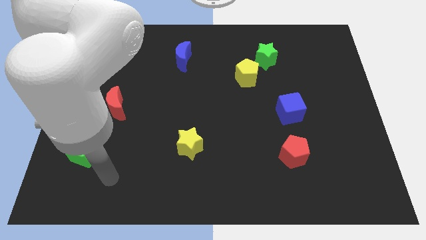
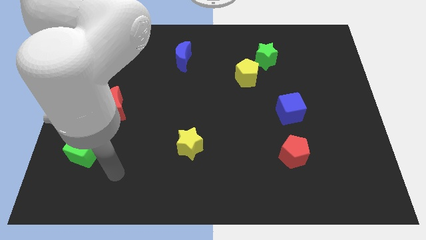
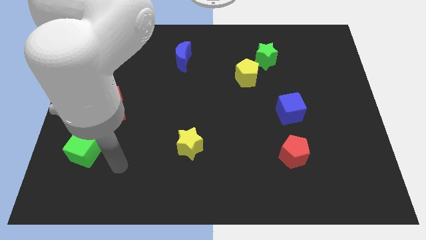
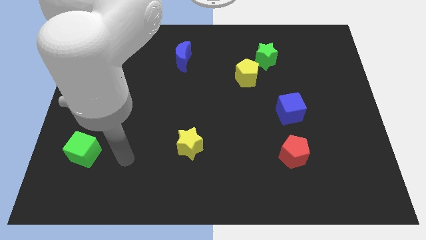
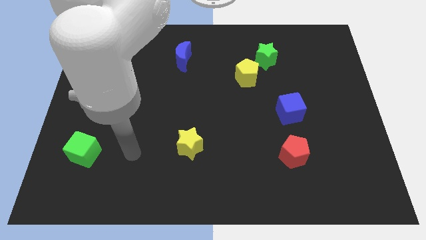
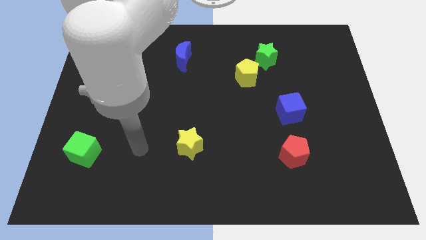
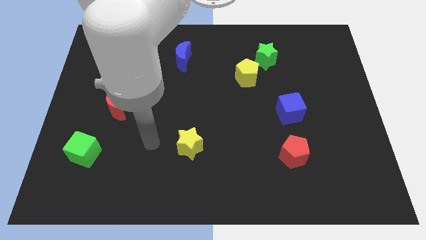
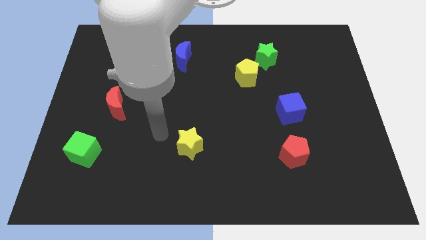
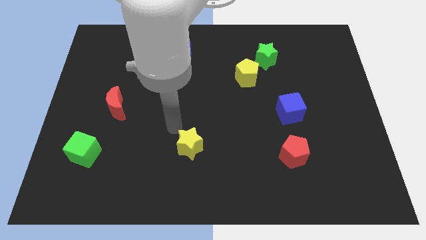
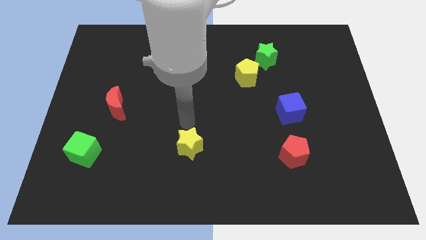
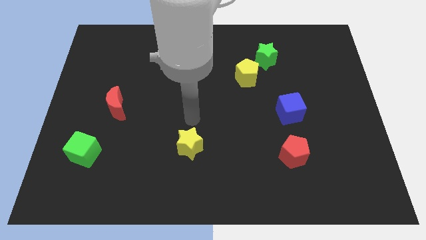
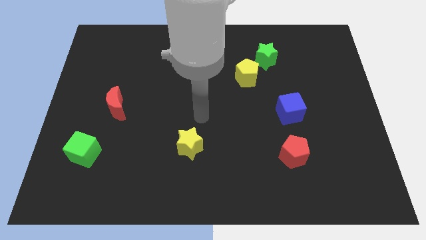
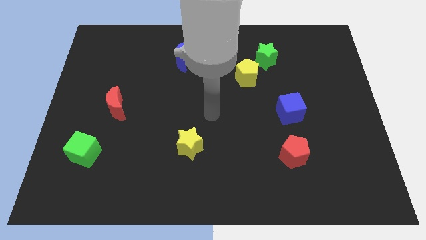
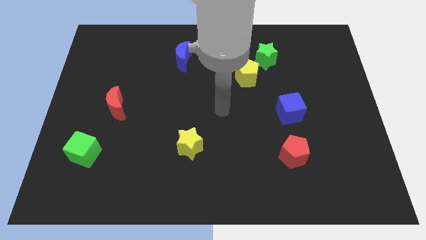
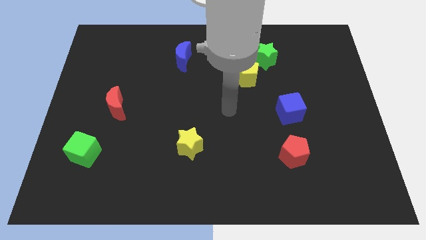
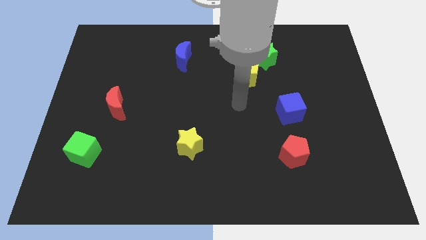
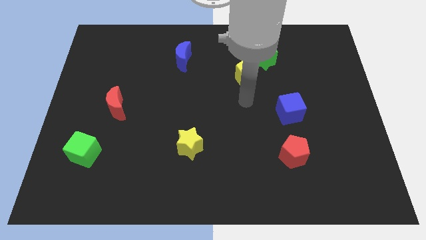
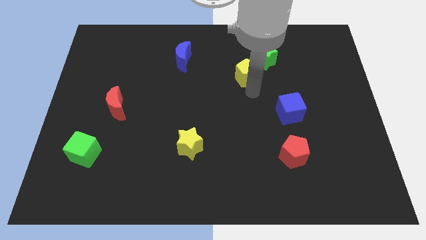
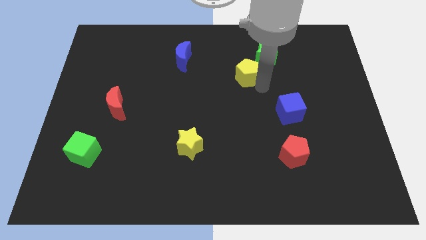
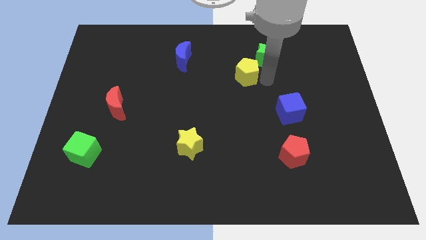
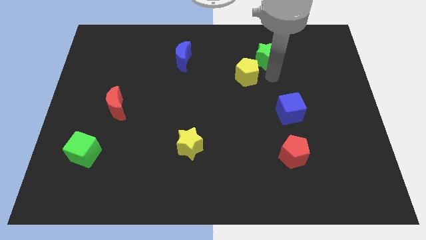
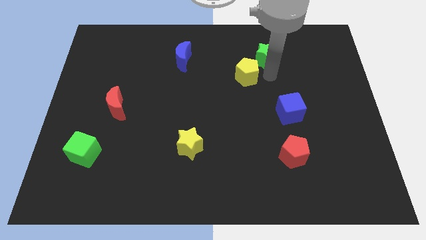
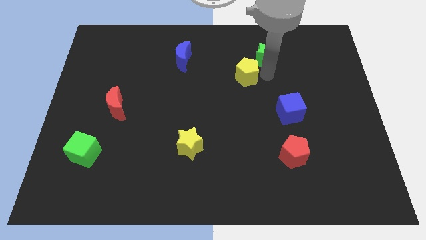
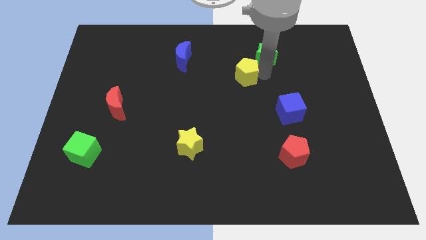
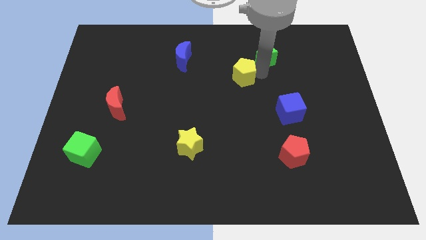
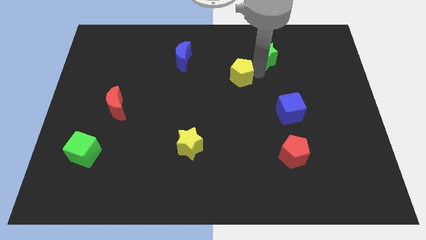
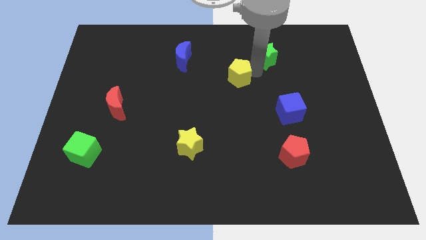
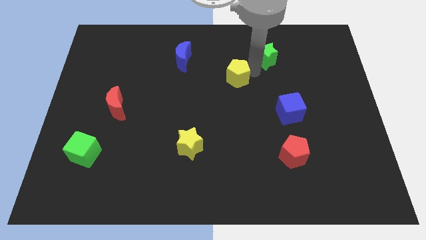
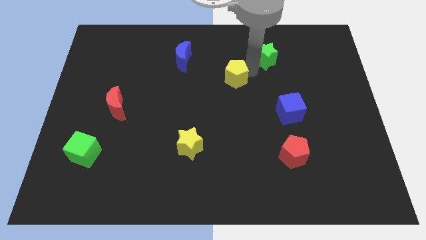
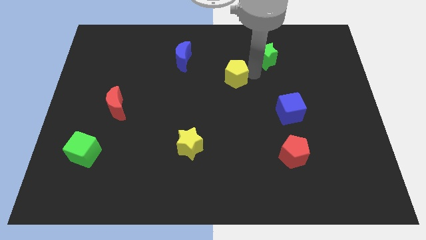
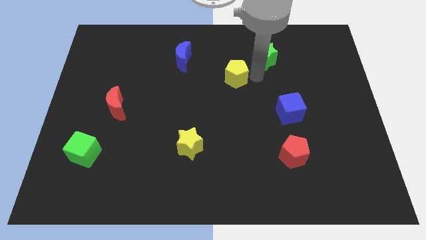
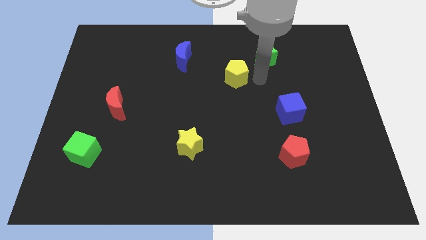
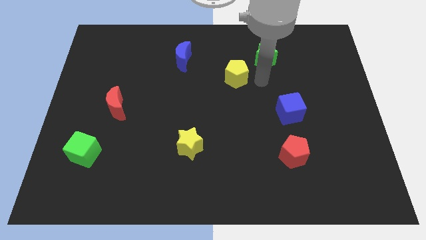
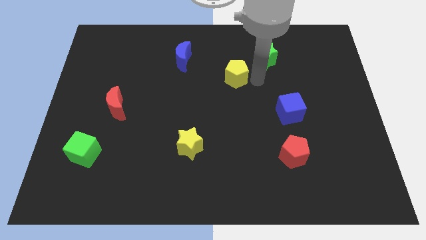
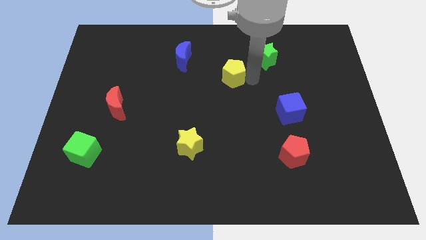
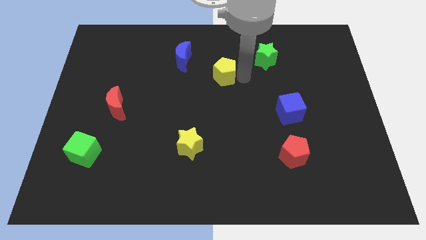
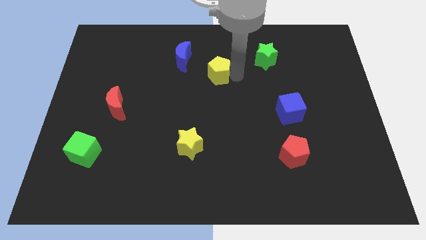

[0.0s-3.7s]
slightly slide the yellow pentagon to the left

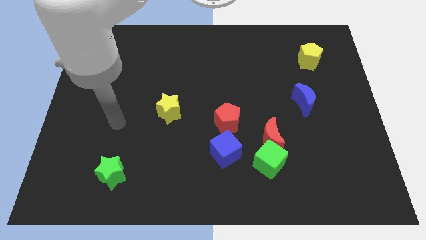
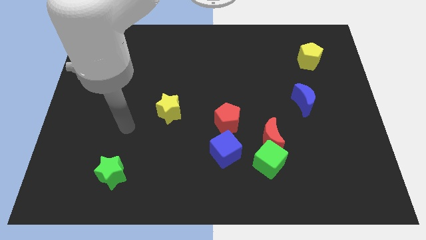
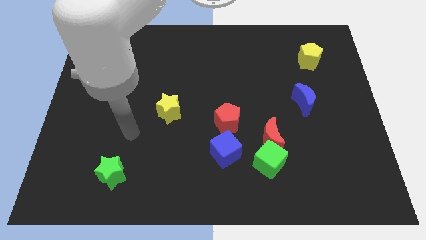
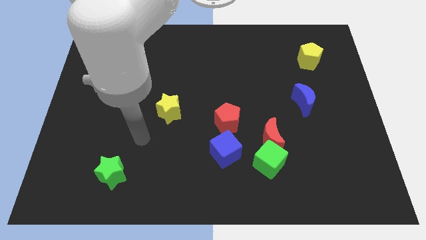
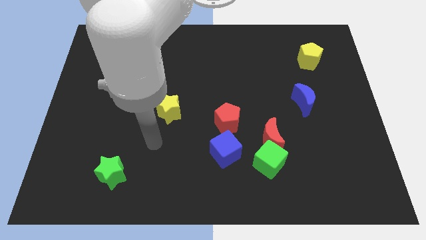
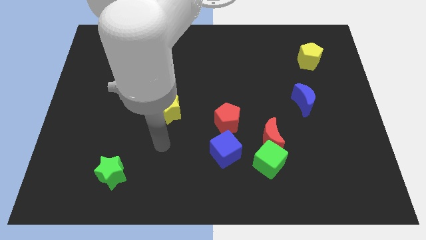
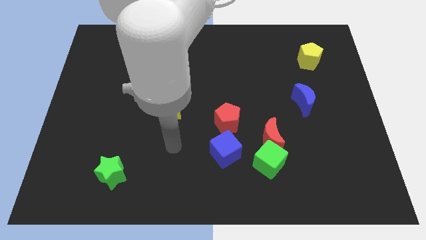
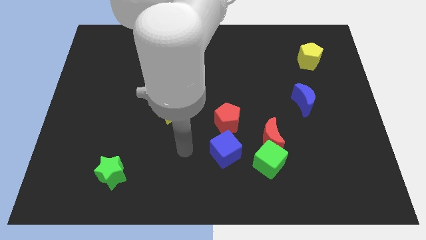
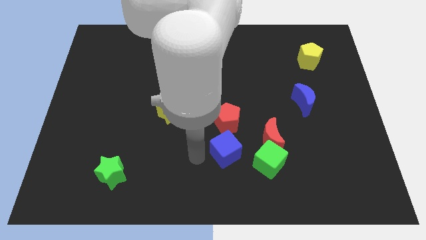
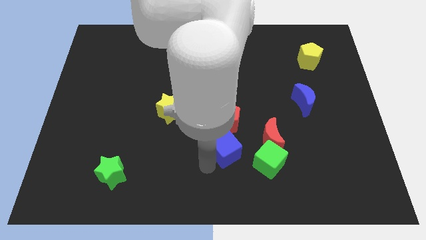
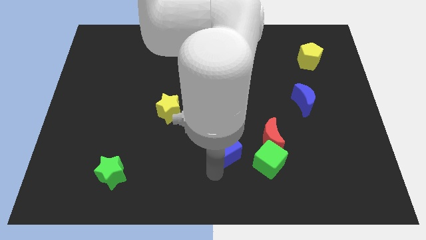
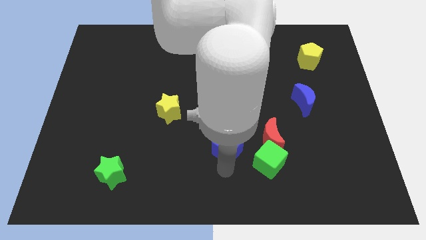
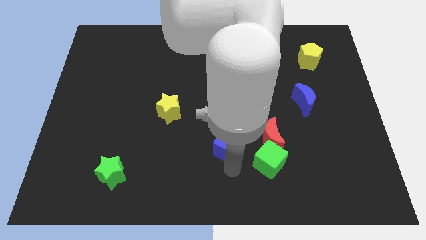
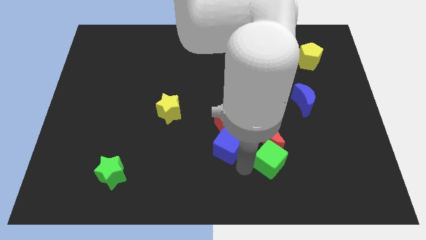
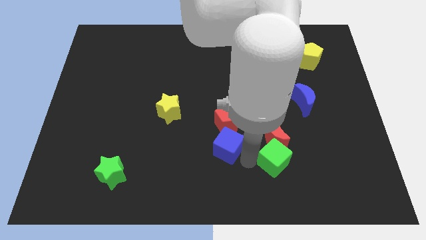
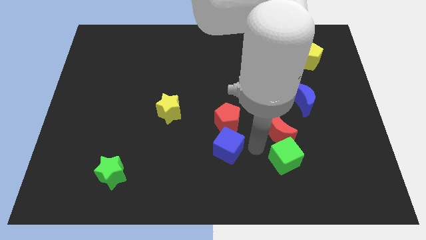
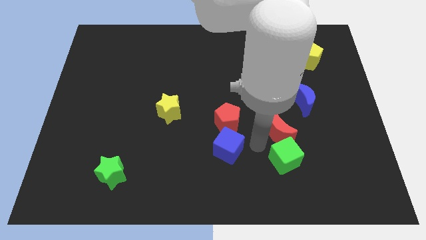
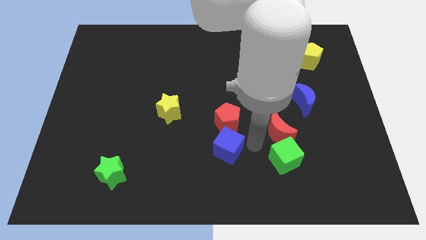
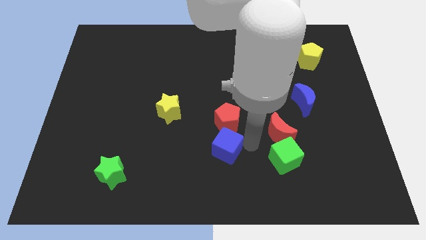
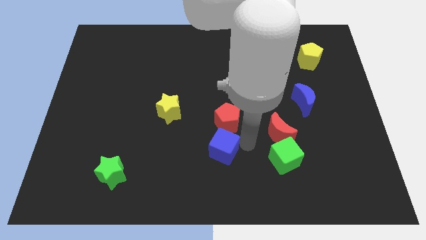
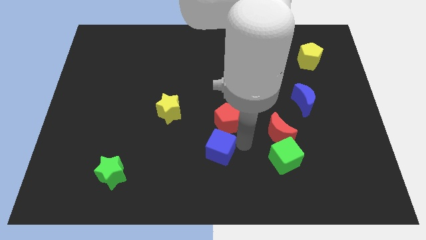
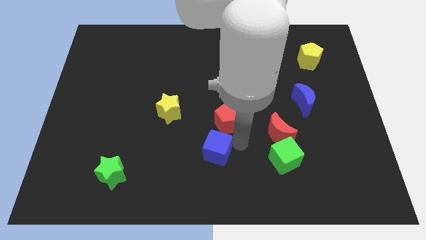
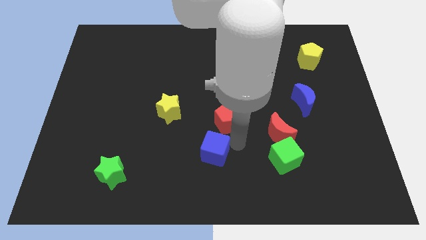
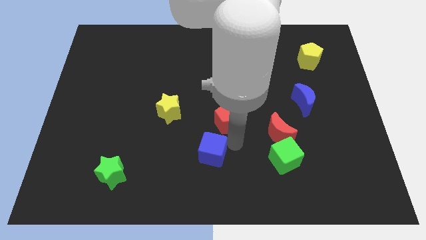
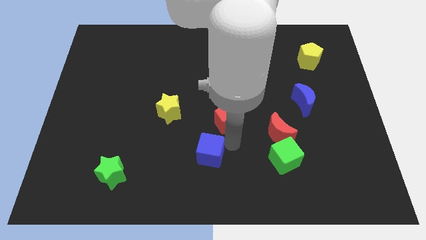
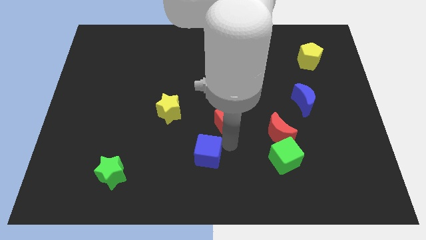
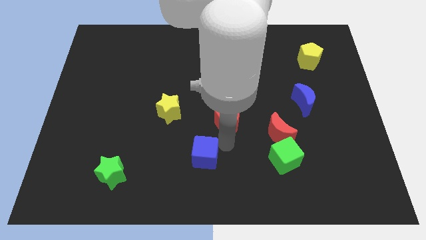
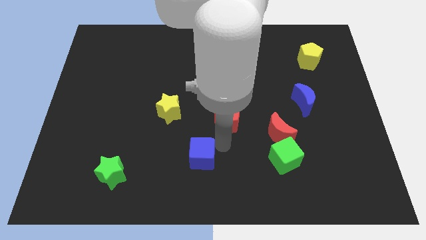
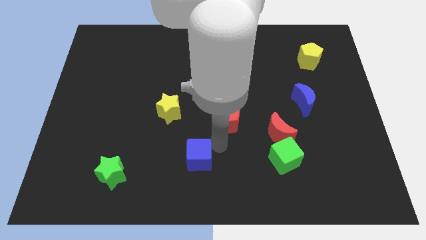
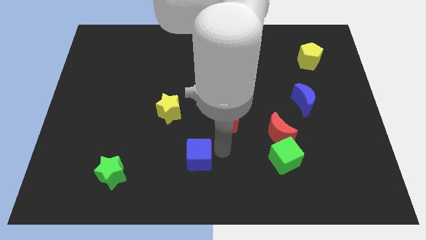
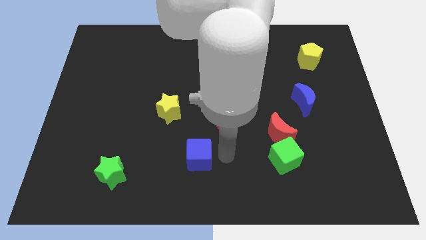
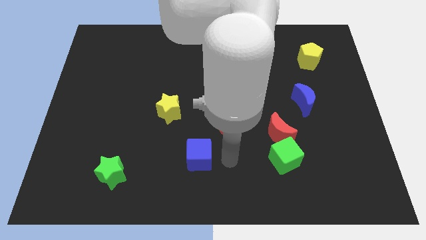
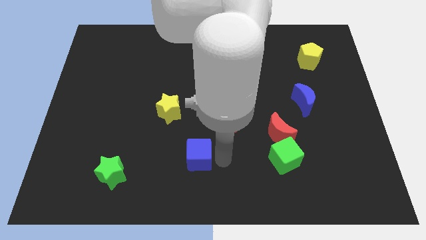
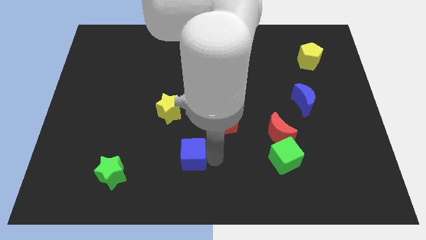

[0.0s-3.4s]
move the blue cube a little bit left

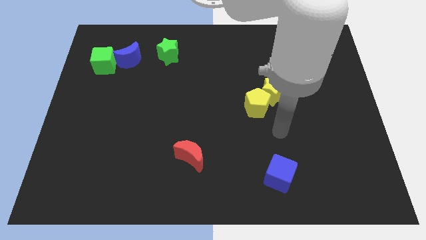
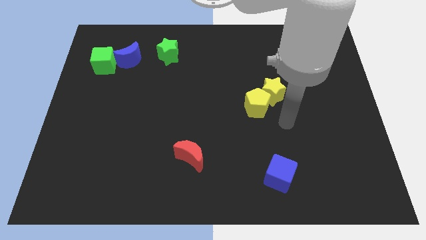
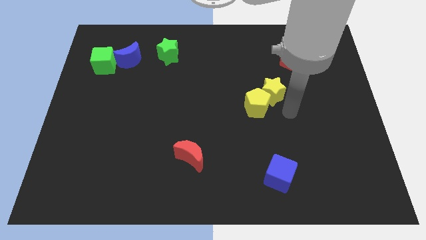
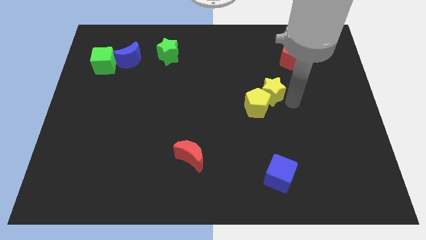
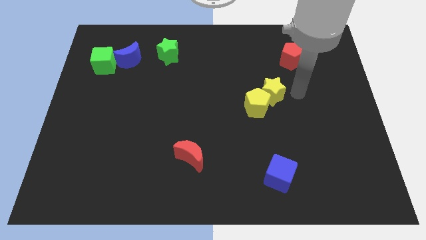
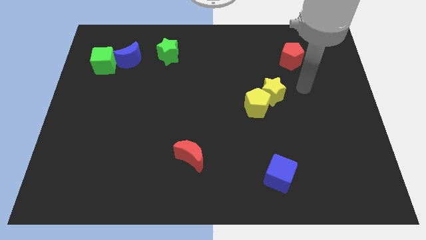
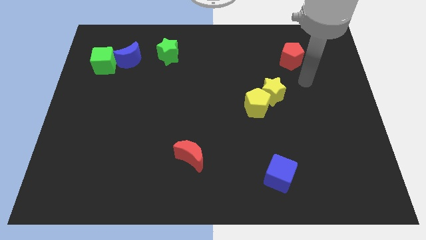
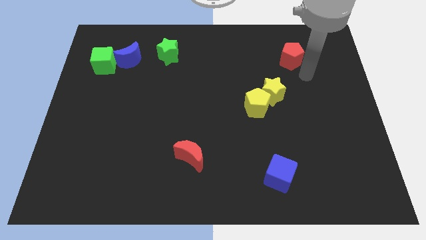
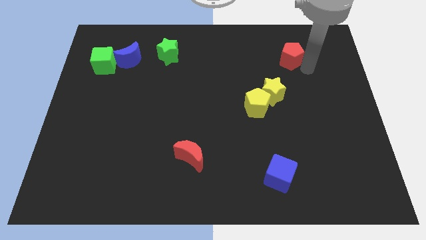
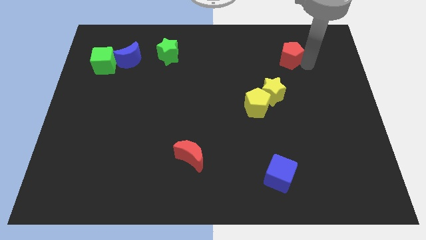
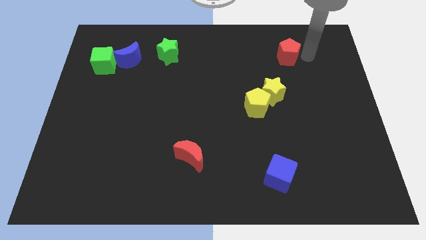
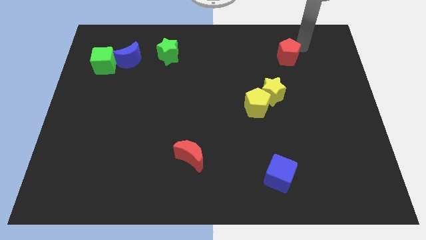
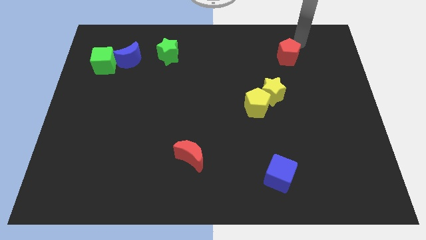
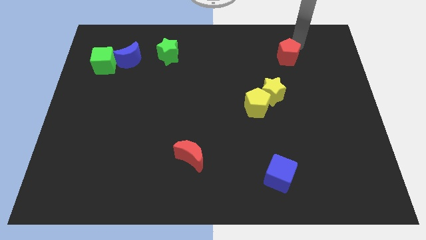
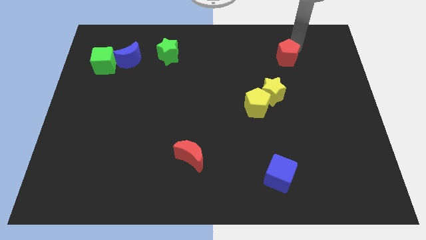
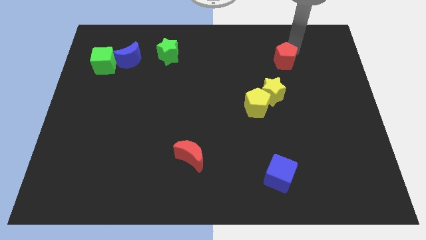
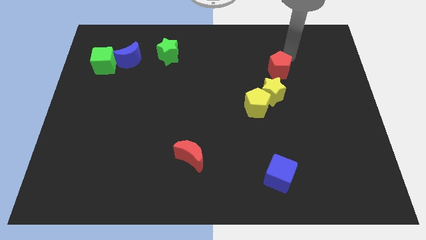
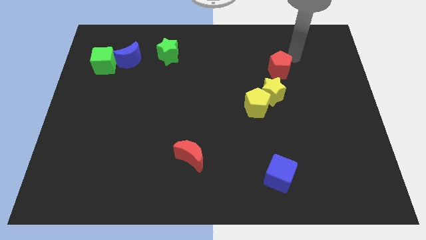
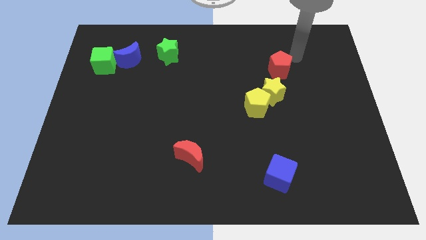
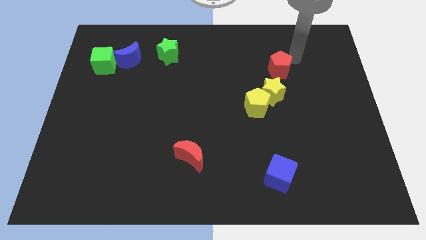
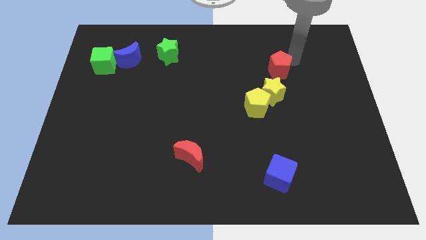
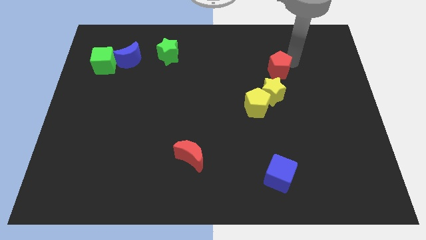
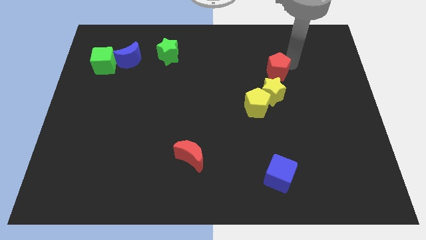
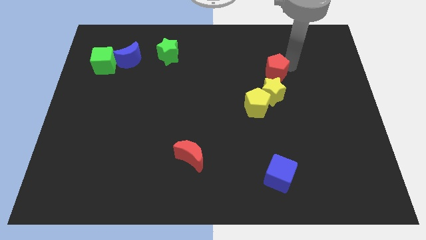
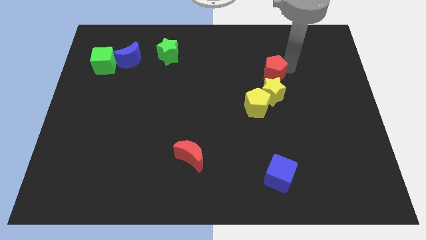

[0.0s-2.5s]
push the red pentagon downwards and left diagonally somewhat
